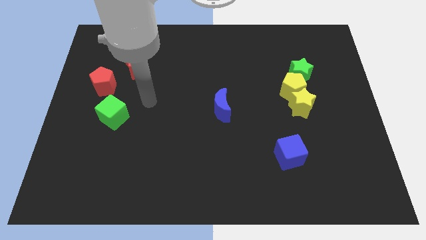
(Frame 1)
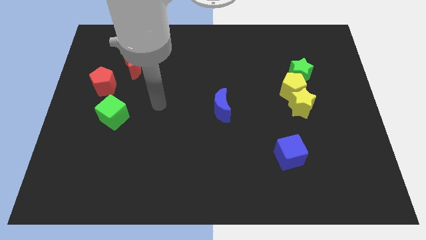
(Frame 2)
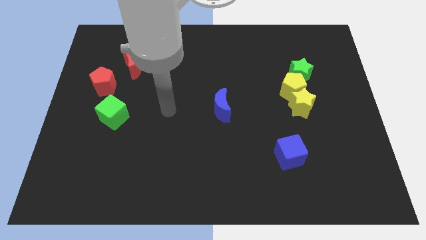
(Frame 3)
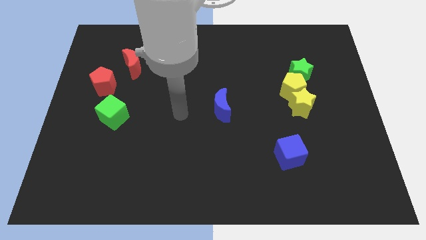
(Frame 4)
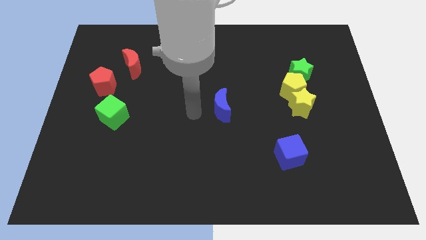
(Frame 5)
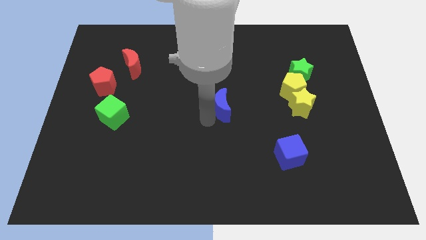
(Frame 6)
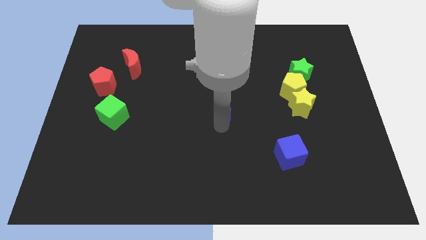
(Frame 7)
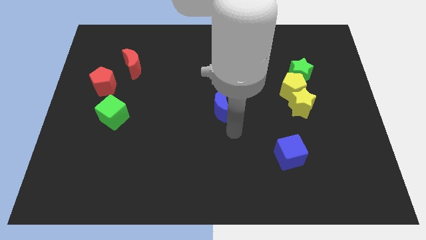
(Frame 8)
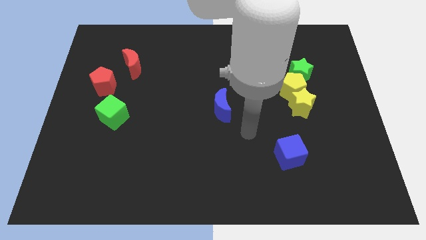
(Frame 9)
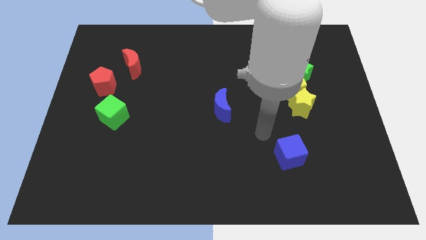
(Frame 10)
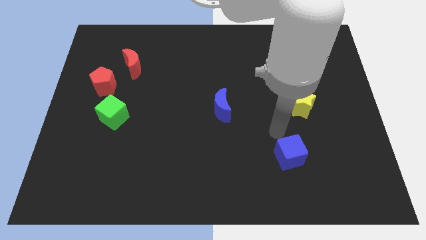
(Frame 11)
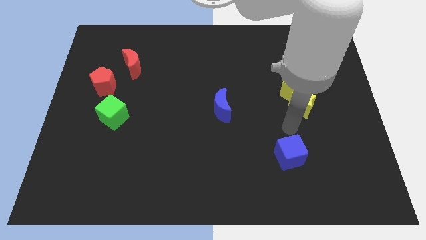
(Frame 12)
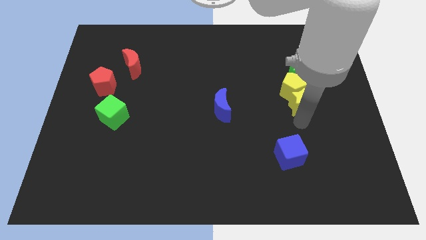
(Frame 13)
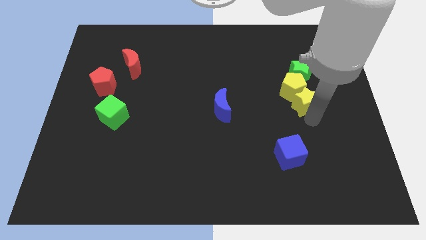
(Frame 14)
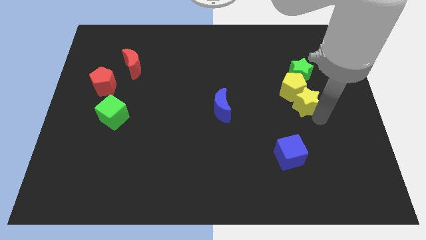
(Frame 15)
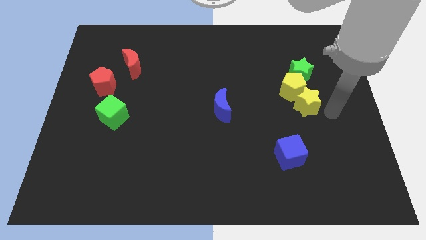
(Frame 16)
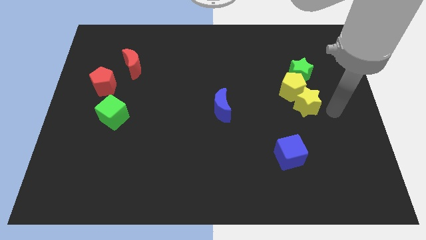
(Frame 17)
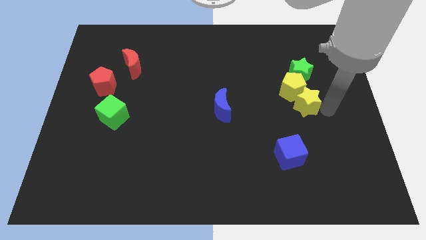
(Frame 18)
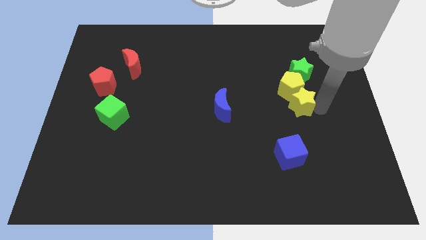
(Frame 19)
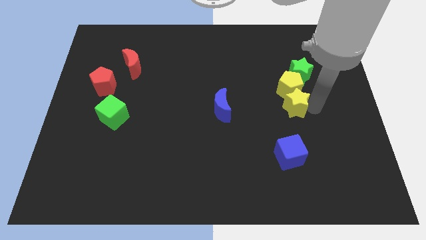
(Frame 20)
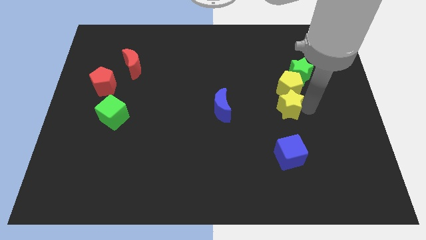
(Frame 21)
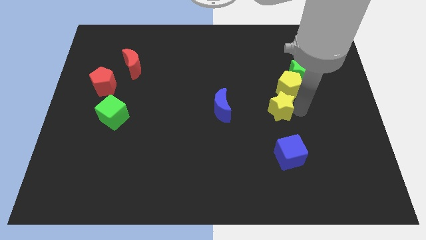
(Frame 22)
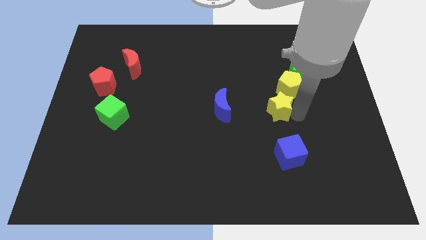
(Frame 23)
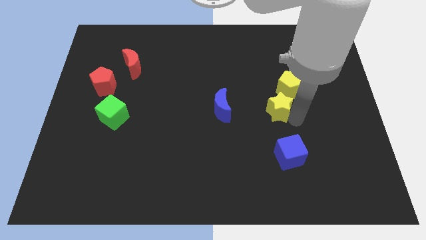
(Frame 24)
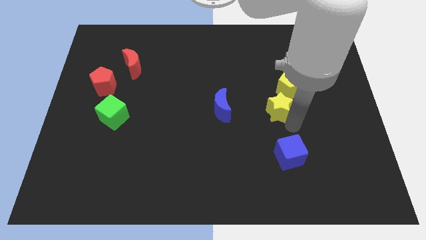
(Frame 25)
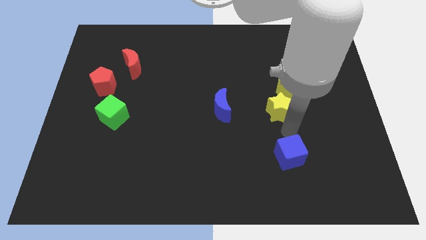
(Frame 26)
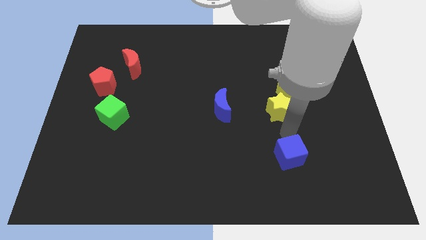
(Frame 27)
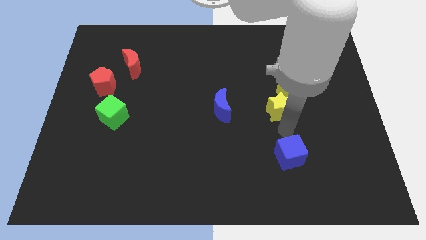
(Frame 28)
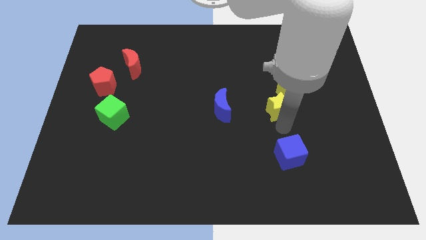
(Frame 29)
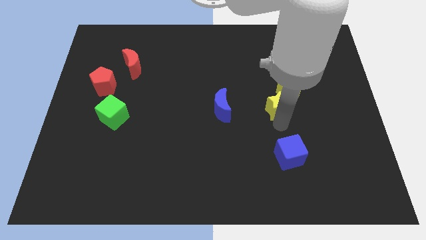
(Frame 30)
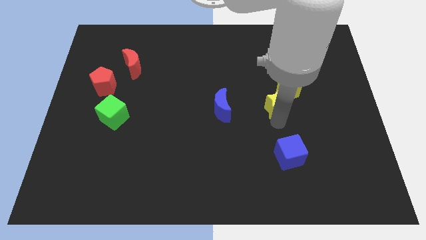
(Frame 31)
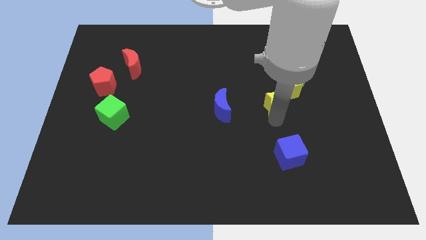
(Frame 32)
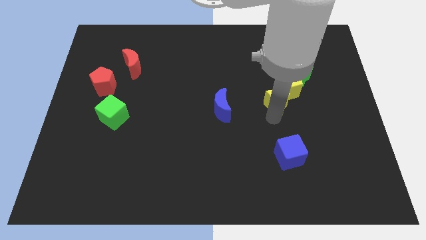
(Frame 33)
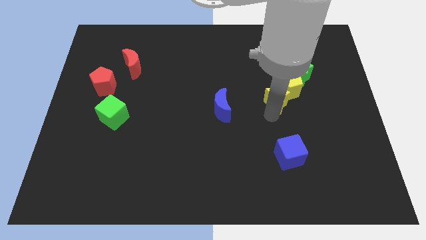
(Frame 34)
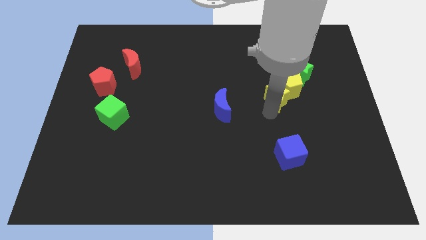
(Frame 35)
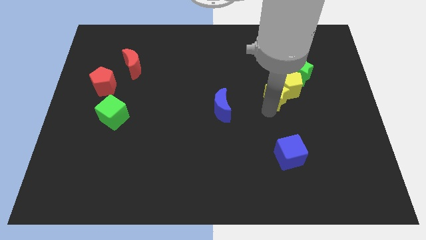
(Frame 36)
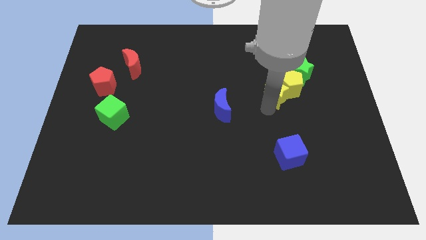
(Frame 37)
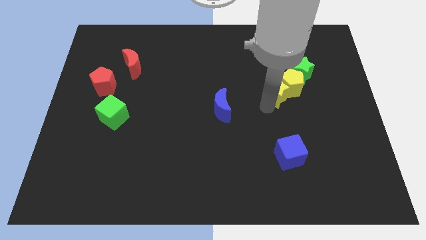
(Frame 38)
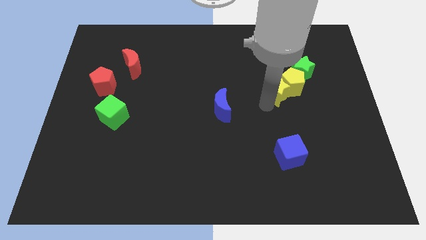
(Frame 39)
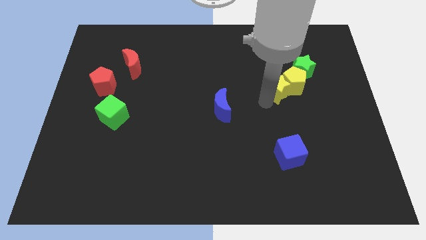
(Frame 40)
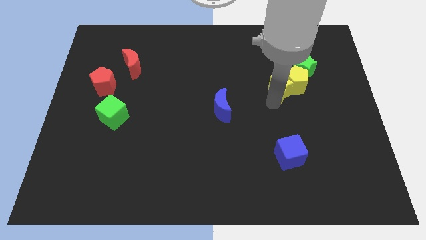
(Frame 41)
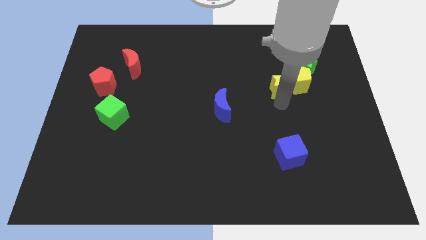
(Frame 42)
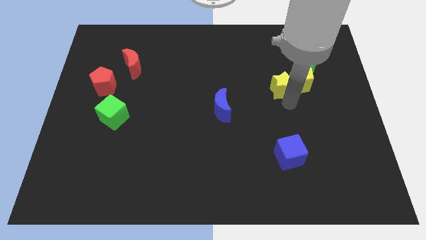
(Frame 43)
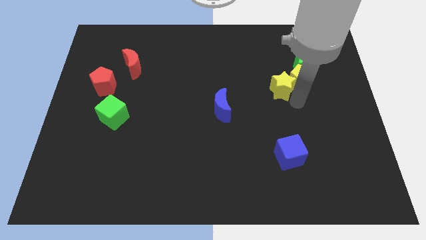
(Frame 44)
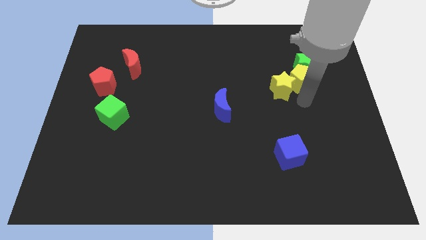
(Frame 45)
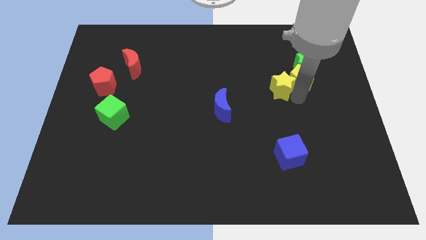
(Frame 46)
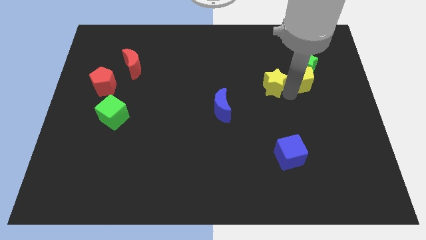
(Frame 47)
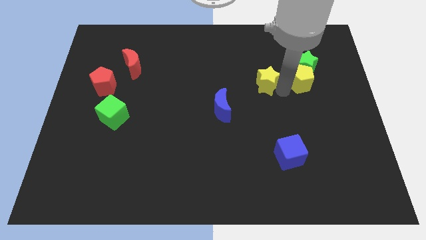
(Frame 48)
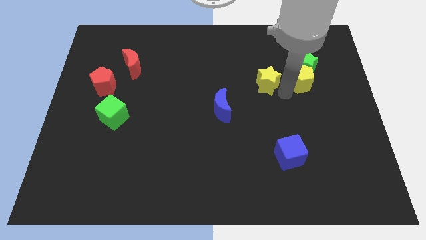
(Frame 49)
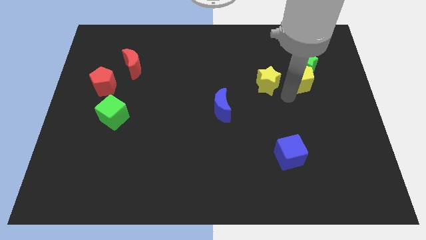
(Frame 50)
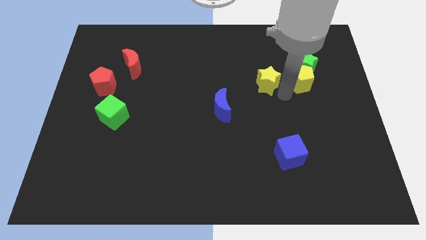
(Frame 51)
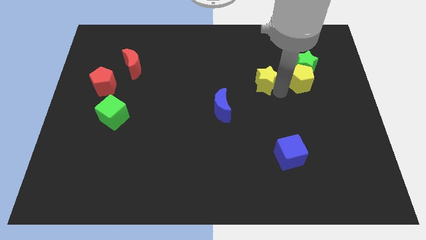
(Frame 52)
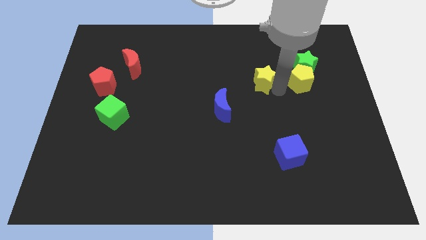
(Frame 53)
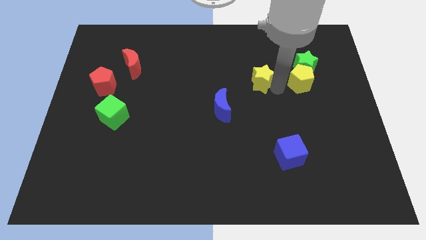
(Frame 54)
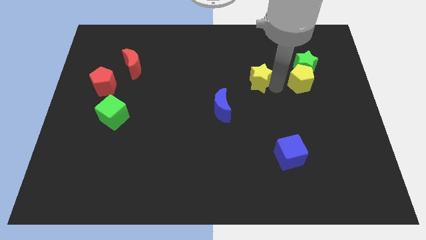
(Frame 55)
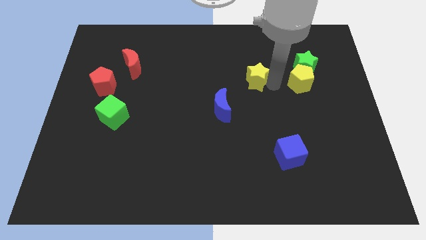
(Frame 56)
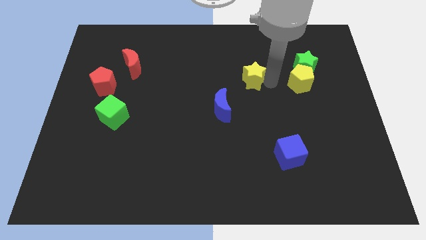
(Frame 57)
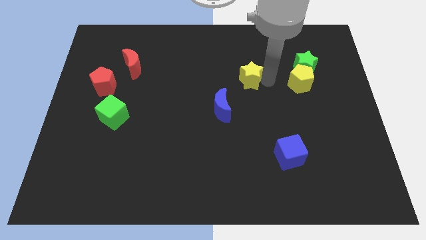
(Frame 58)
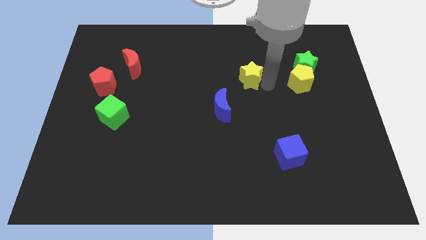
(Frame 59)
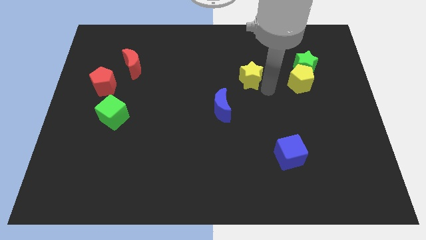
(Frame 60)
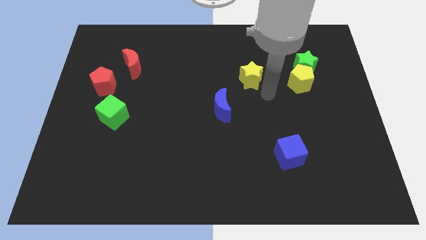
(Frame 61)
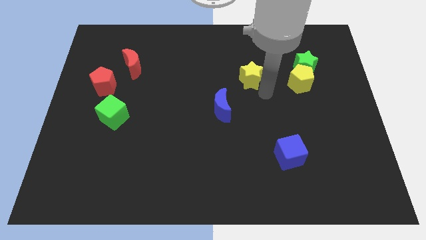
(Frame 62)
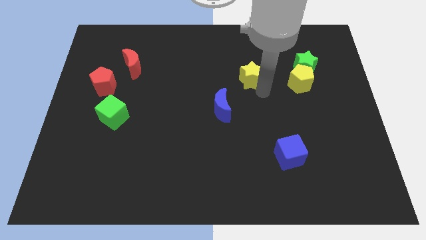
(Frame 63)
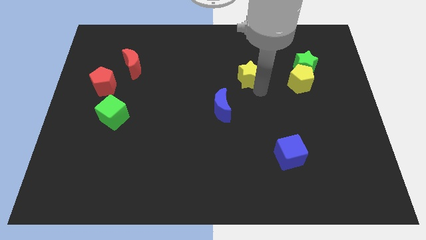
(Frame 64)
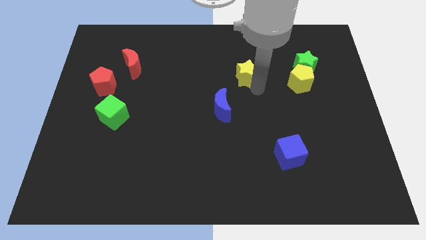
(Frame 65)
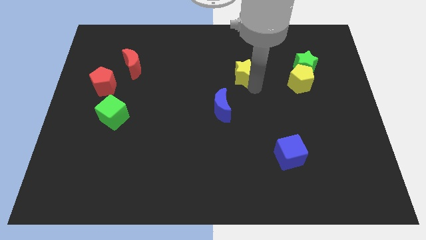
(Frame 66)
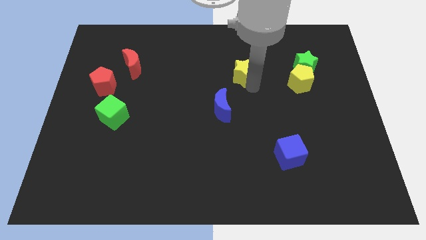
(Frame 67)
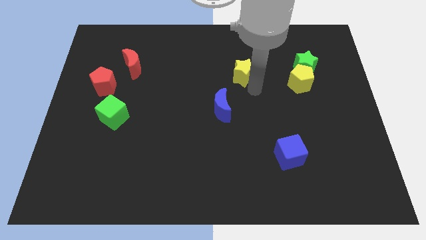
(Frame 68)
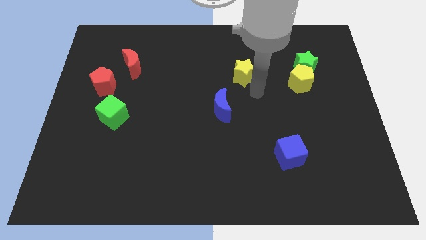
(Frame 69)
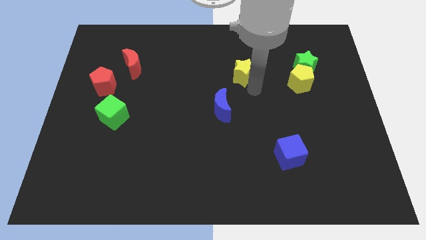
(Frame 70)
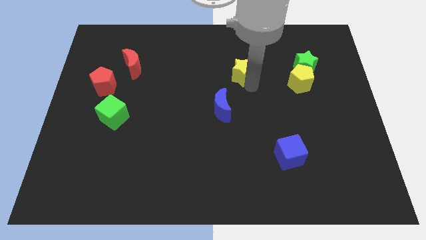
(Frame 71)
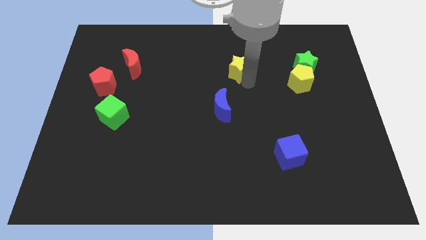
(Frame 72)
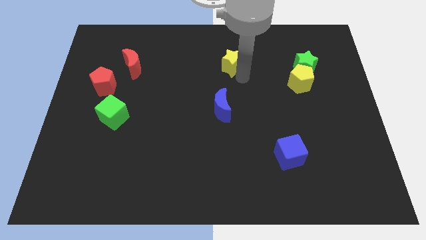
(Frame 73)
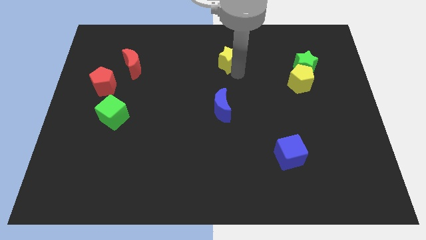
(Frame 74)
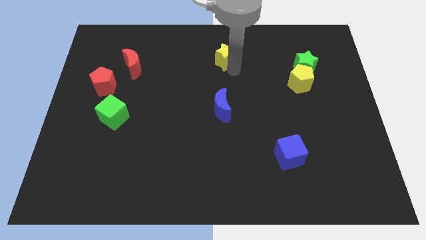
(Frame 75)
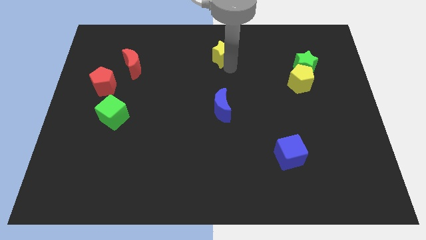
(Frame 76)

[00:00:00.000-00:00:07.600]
put the yellow star to the towards your base
